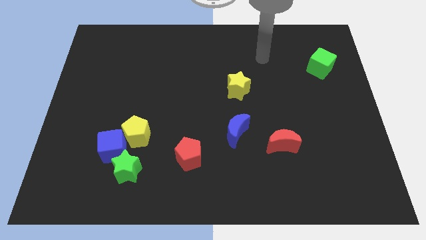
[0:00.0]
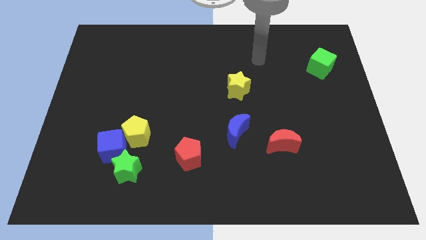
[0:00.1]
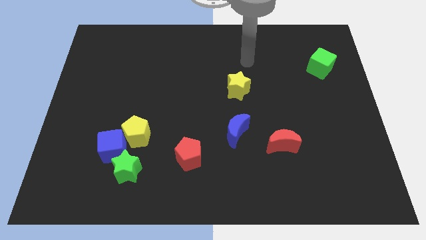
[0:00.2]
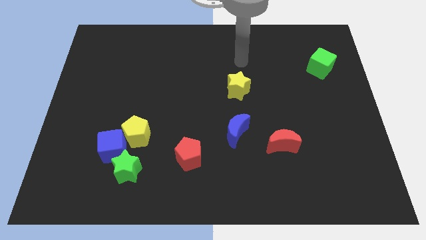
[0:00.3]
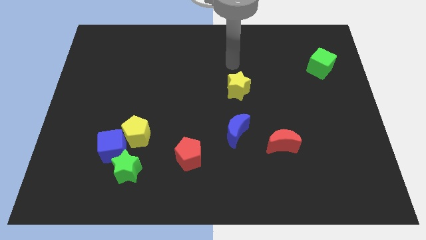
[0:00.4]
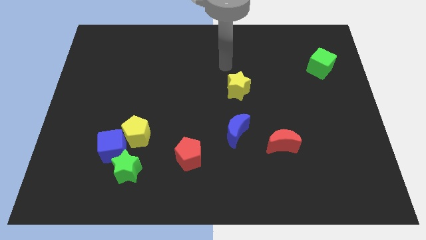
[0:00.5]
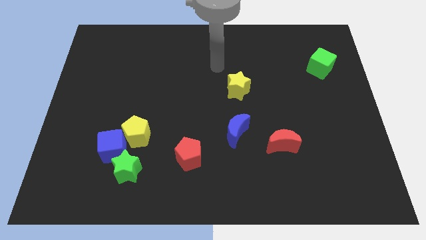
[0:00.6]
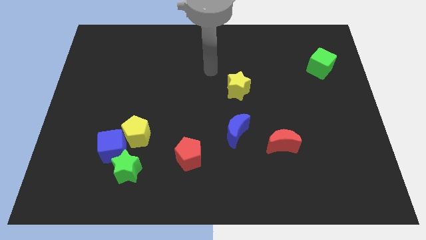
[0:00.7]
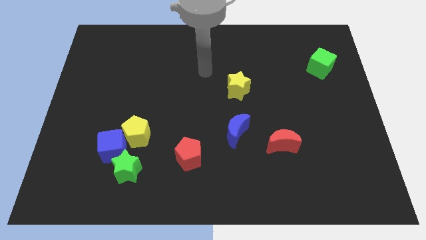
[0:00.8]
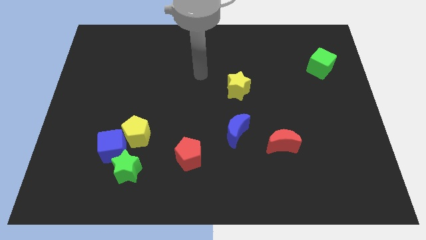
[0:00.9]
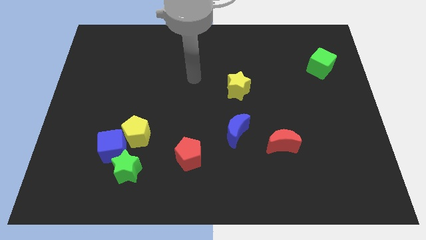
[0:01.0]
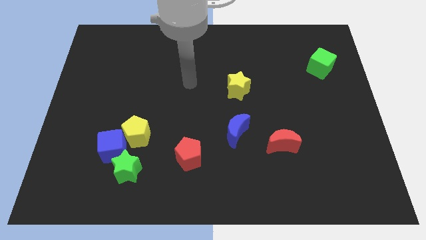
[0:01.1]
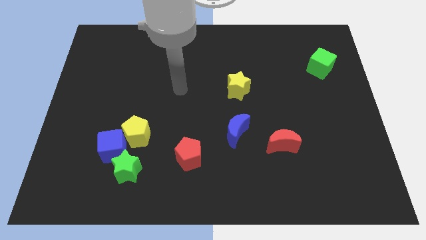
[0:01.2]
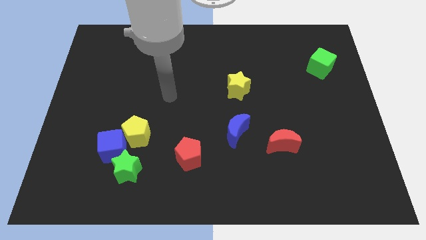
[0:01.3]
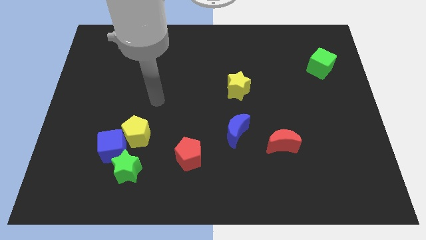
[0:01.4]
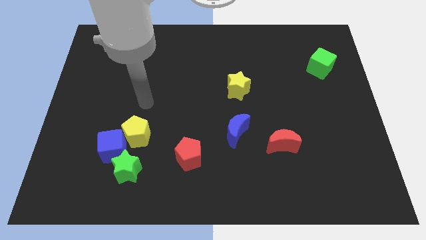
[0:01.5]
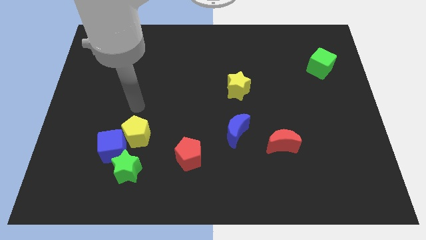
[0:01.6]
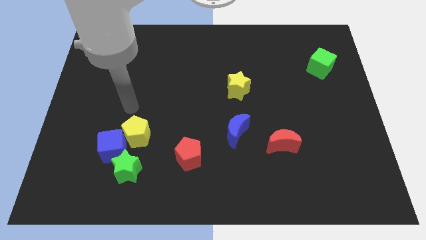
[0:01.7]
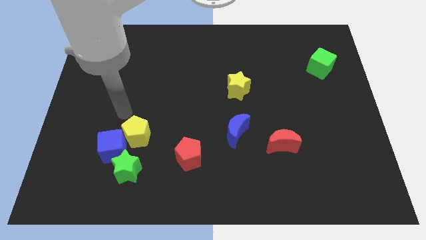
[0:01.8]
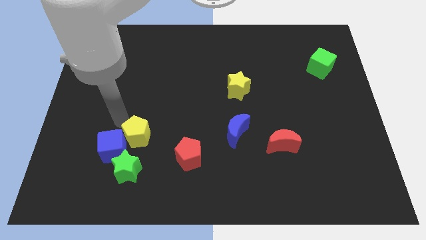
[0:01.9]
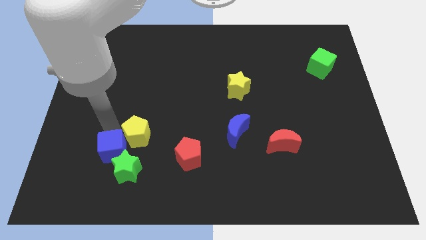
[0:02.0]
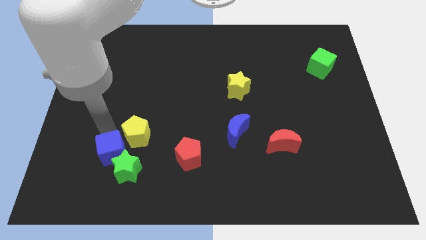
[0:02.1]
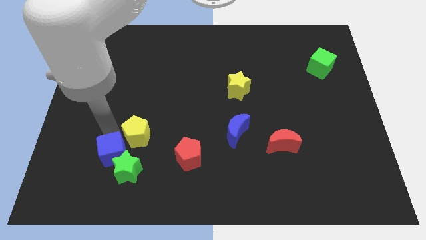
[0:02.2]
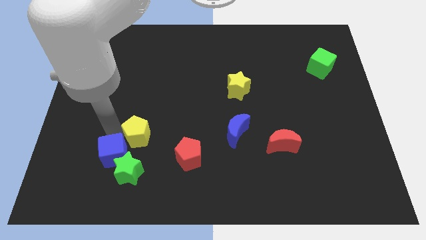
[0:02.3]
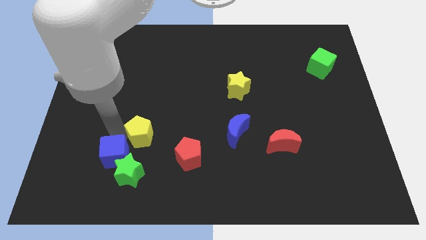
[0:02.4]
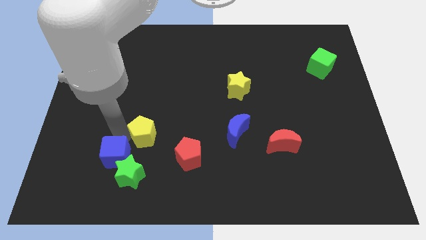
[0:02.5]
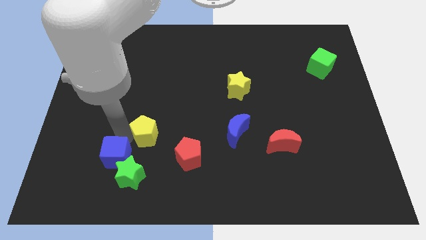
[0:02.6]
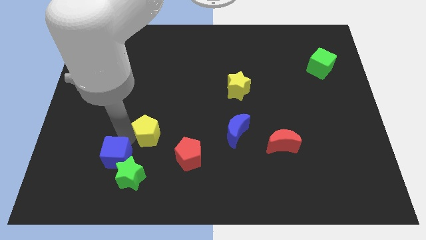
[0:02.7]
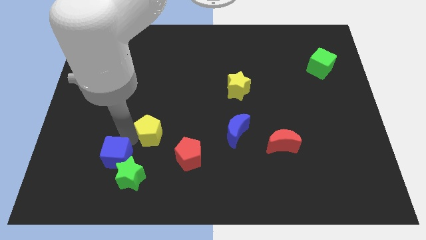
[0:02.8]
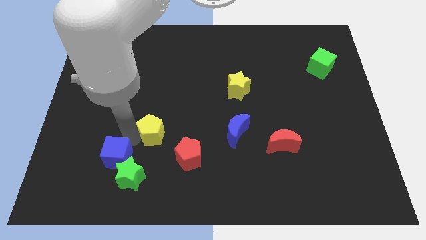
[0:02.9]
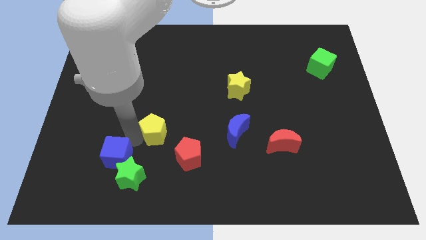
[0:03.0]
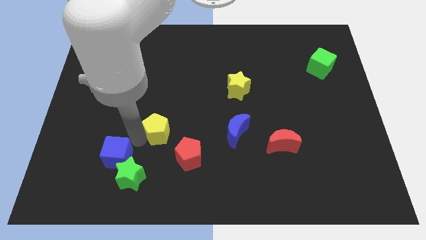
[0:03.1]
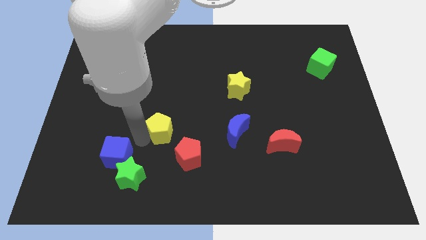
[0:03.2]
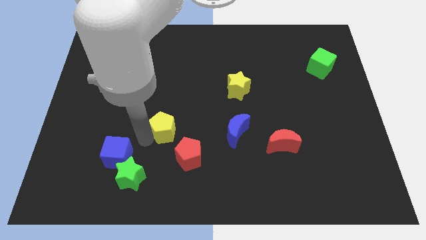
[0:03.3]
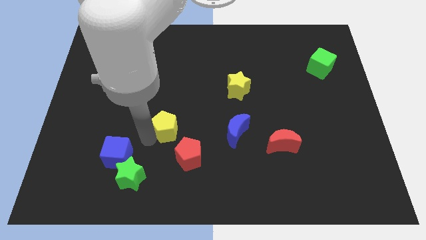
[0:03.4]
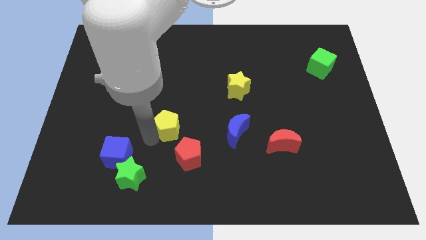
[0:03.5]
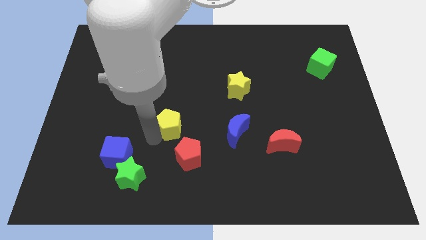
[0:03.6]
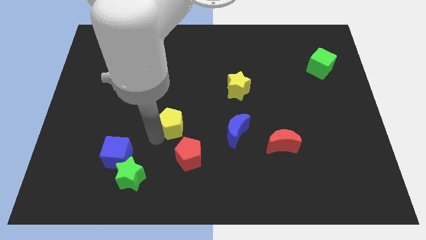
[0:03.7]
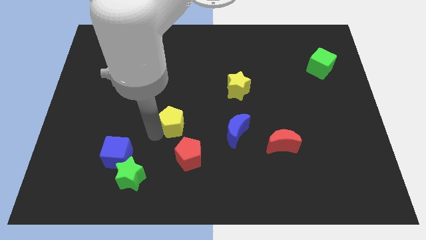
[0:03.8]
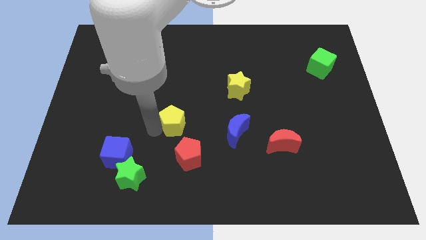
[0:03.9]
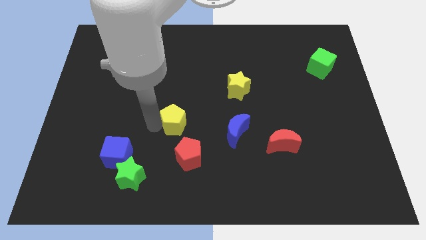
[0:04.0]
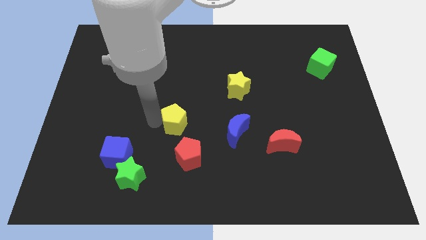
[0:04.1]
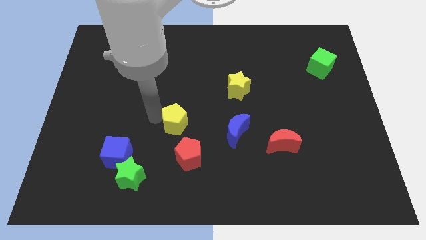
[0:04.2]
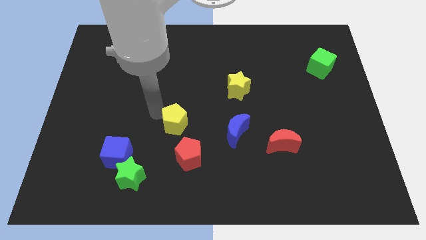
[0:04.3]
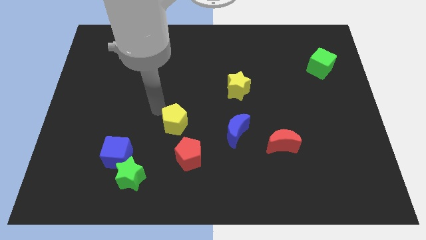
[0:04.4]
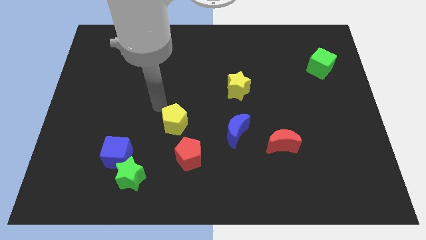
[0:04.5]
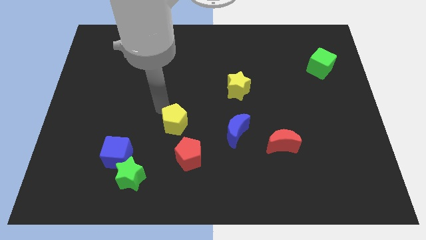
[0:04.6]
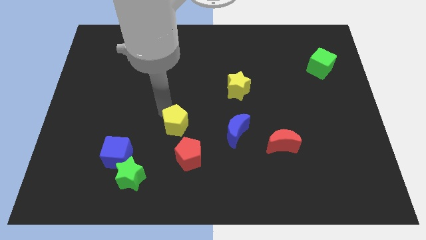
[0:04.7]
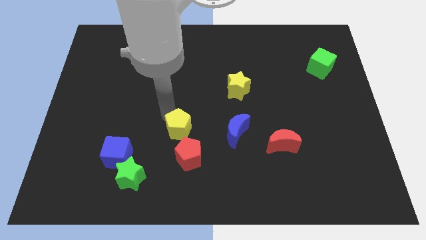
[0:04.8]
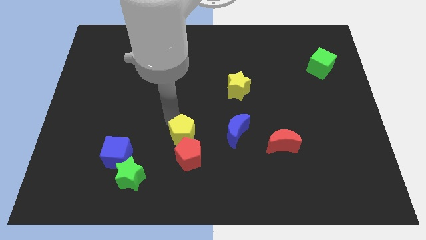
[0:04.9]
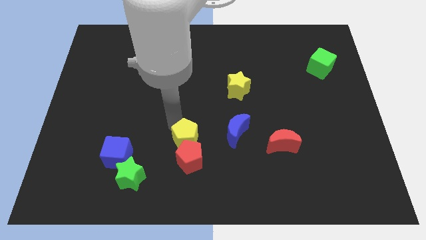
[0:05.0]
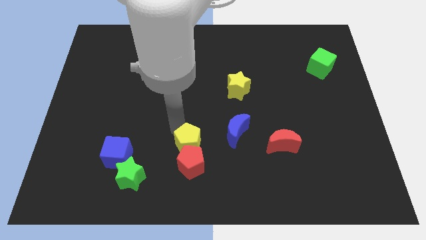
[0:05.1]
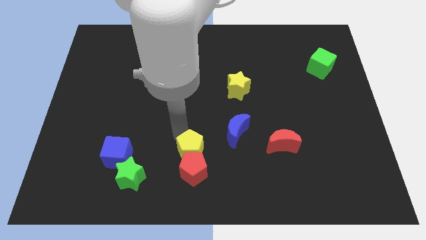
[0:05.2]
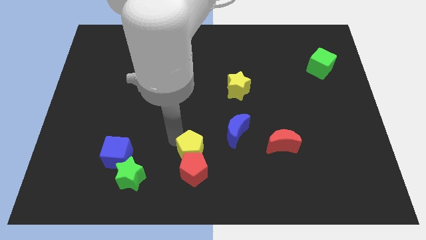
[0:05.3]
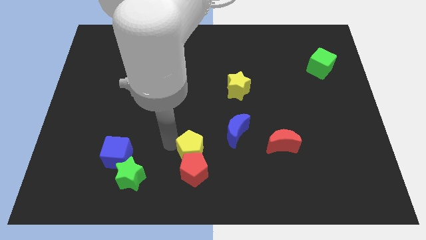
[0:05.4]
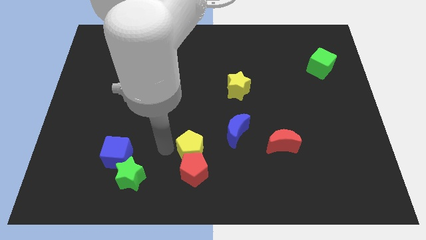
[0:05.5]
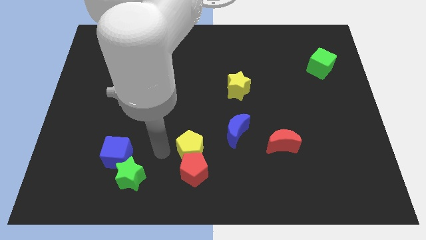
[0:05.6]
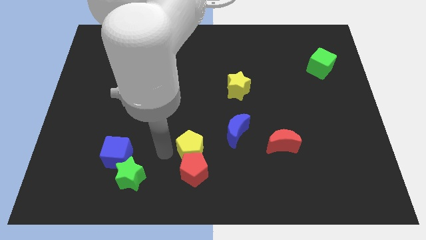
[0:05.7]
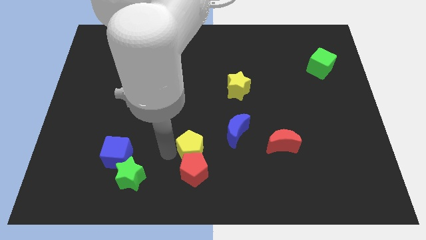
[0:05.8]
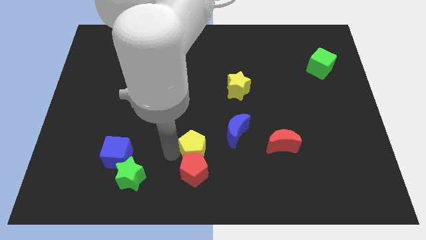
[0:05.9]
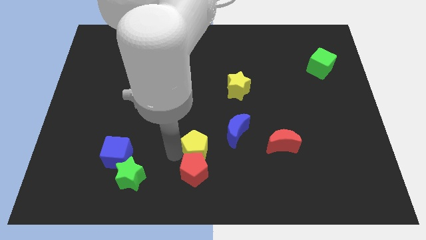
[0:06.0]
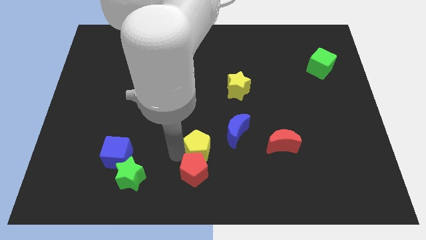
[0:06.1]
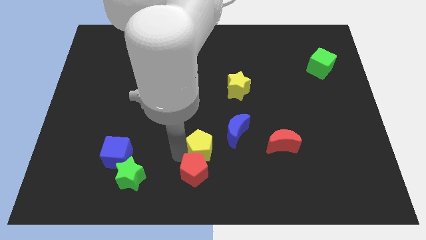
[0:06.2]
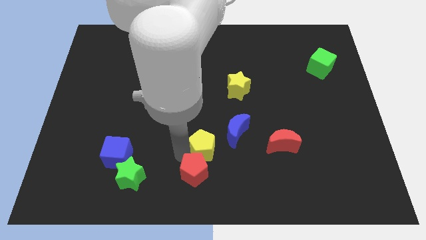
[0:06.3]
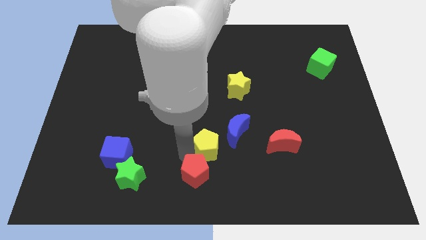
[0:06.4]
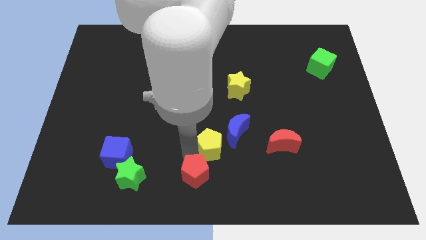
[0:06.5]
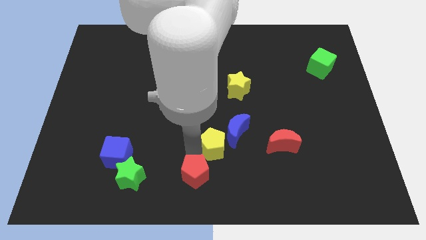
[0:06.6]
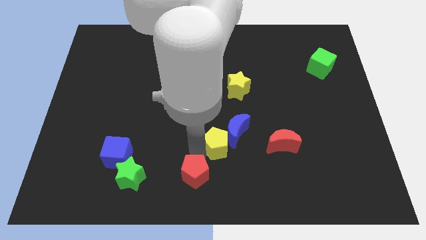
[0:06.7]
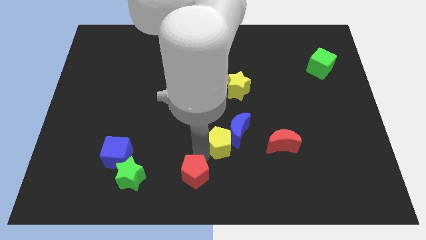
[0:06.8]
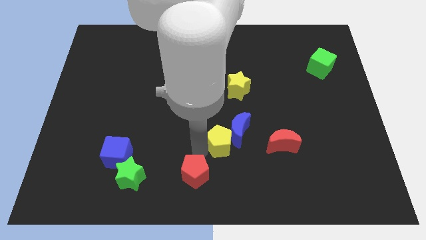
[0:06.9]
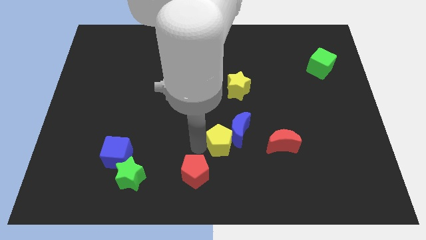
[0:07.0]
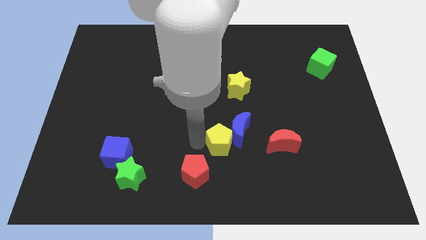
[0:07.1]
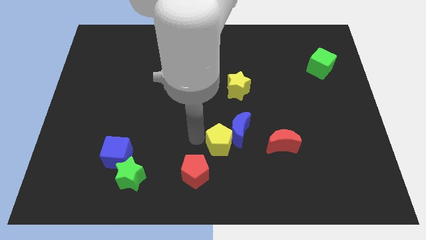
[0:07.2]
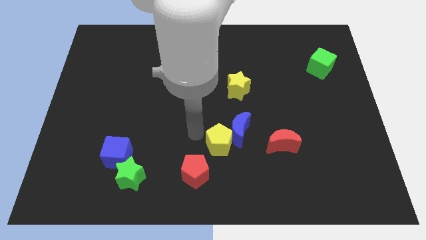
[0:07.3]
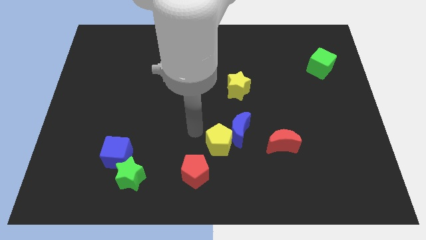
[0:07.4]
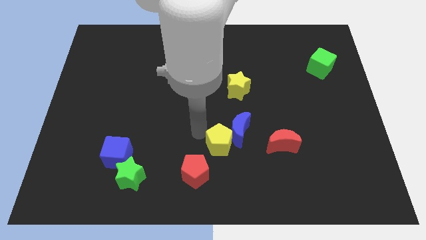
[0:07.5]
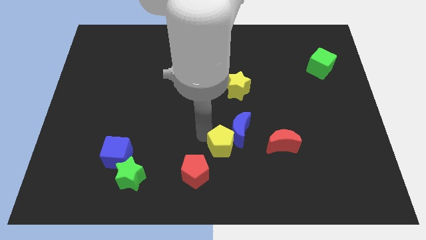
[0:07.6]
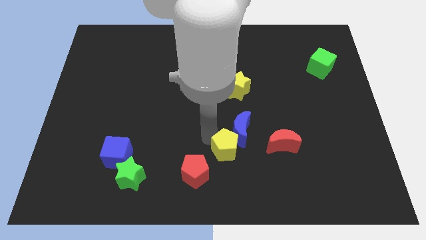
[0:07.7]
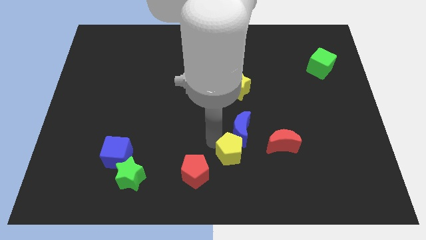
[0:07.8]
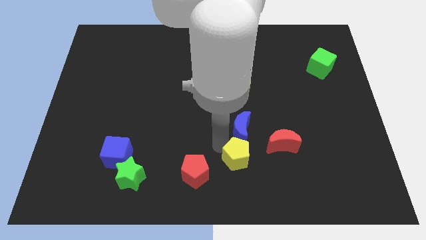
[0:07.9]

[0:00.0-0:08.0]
put the yellow pentagon to the bottom left of the red moon
